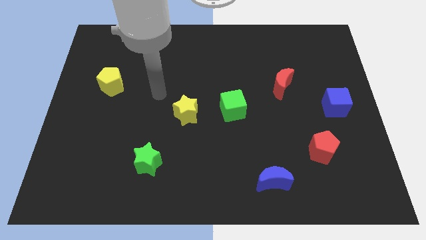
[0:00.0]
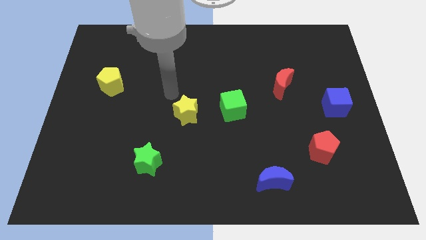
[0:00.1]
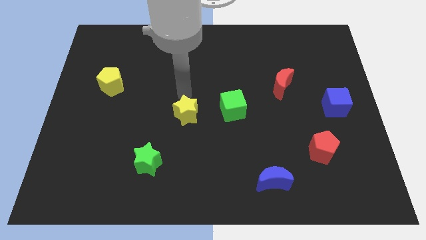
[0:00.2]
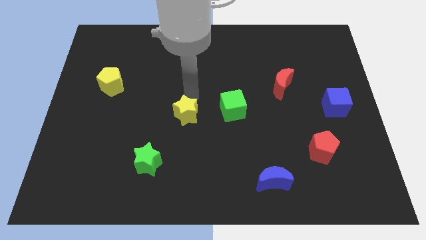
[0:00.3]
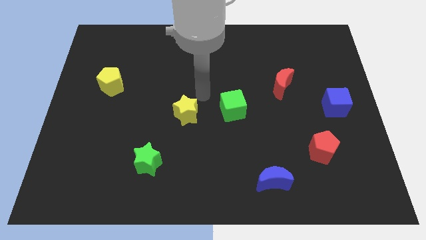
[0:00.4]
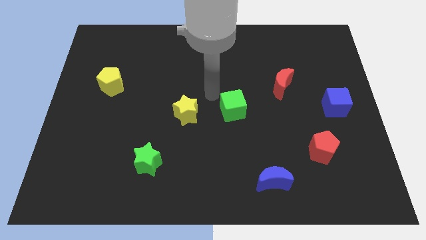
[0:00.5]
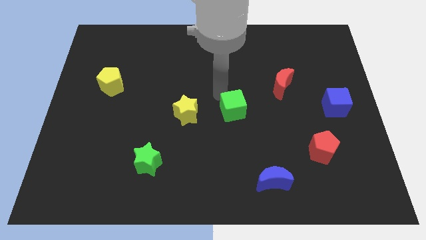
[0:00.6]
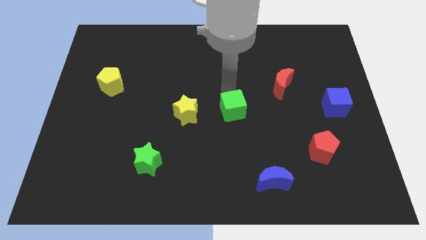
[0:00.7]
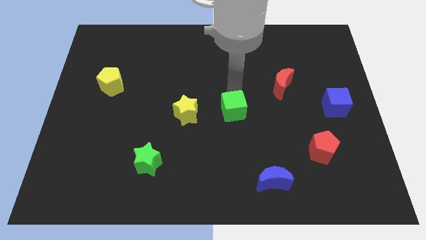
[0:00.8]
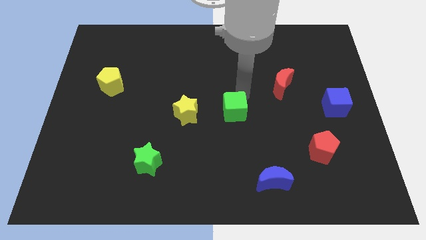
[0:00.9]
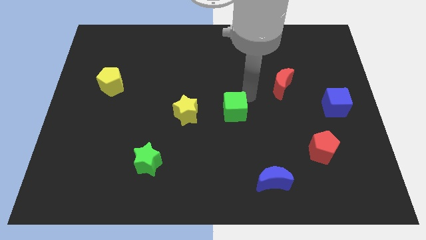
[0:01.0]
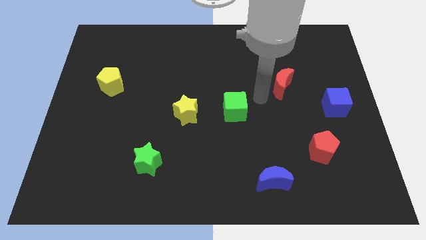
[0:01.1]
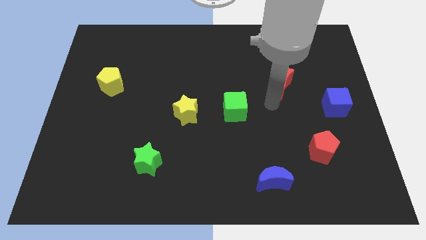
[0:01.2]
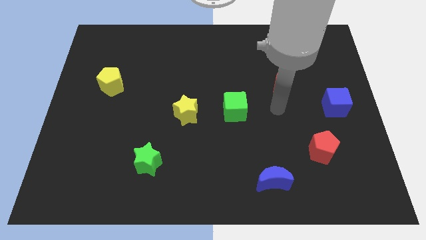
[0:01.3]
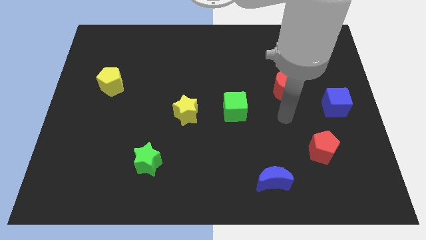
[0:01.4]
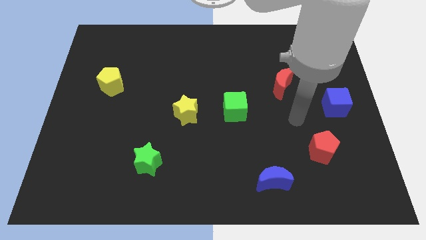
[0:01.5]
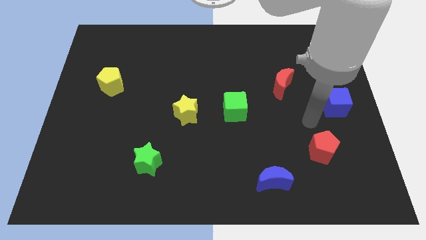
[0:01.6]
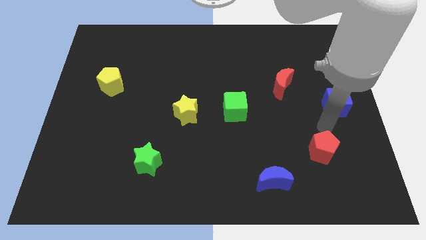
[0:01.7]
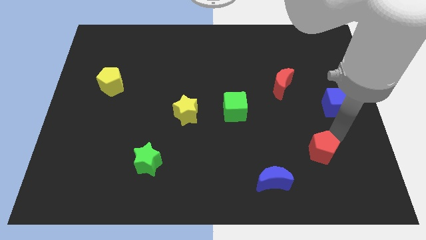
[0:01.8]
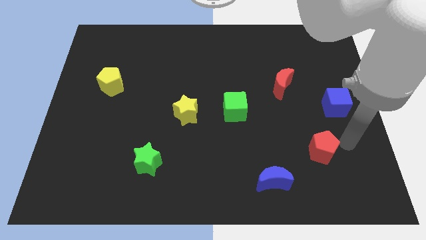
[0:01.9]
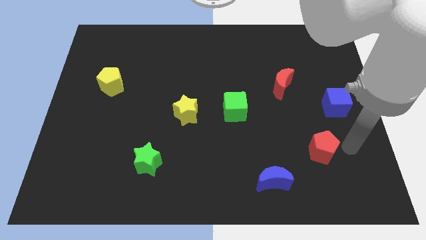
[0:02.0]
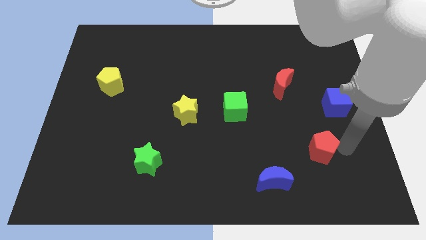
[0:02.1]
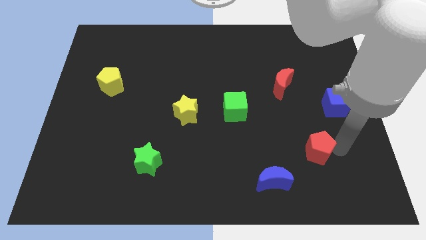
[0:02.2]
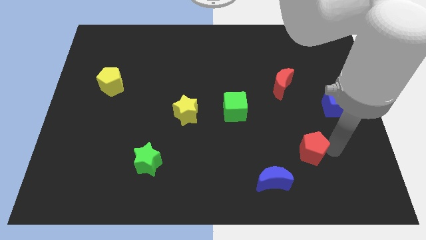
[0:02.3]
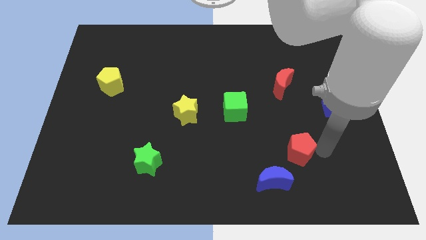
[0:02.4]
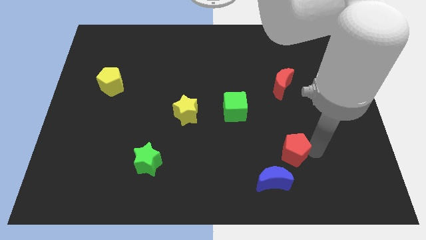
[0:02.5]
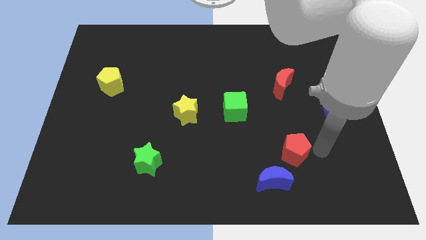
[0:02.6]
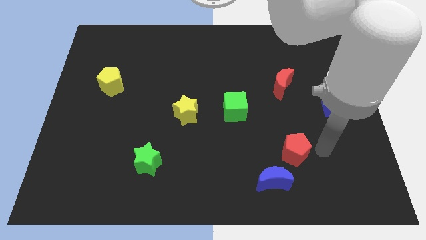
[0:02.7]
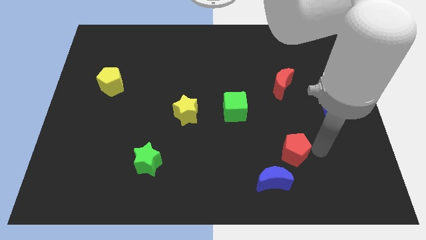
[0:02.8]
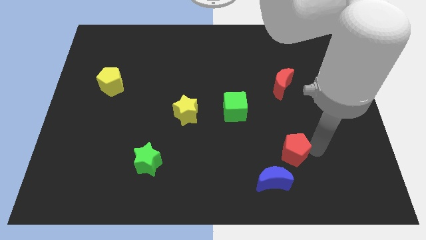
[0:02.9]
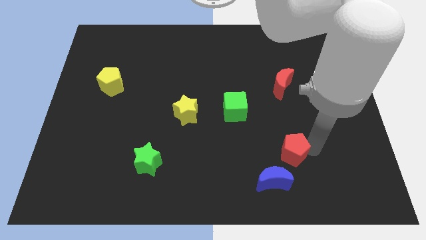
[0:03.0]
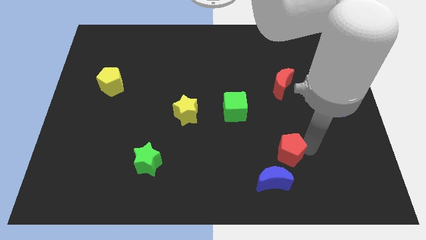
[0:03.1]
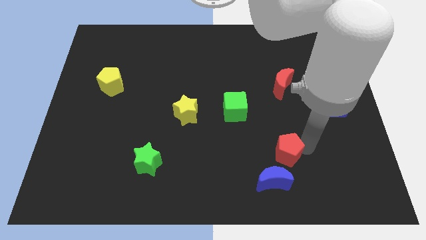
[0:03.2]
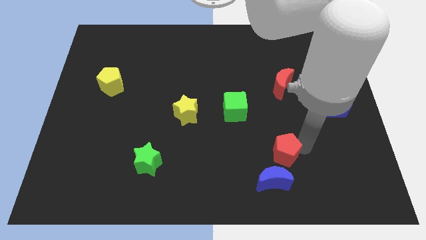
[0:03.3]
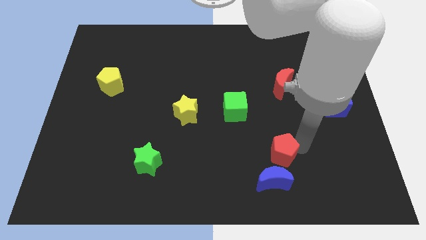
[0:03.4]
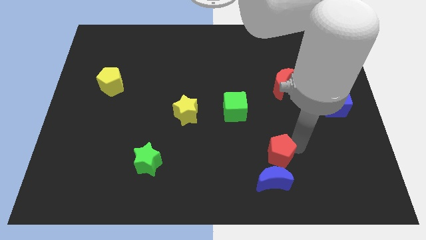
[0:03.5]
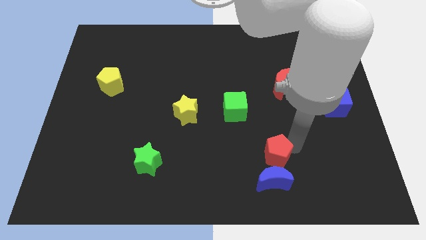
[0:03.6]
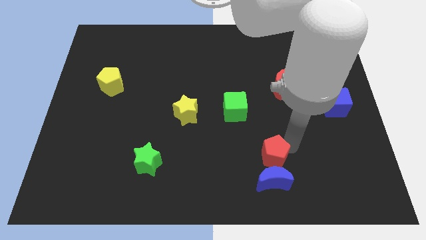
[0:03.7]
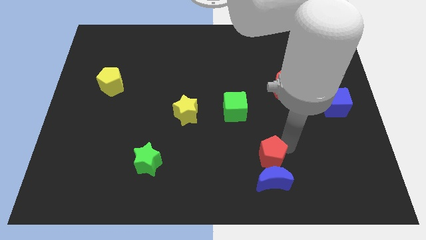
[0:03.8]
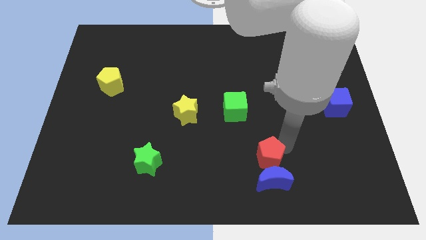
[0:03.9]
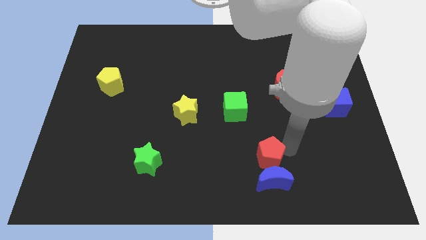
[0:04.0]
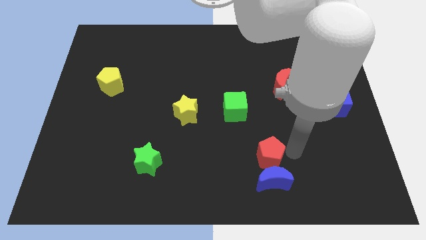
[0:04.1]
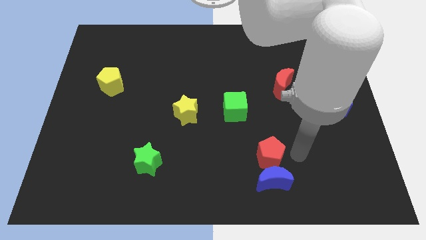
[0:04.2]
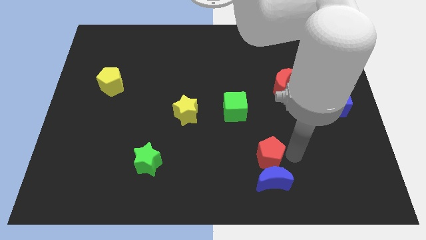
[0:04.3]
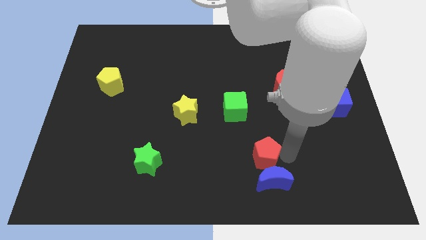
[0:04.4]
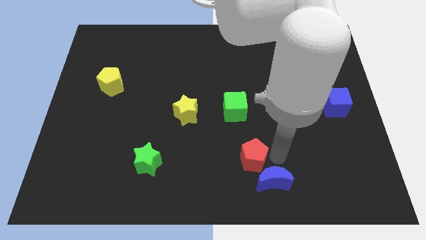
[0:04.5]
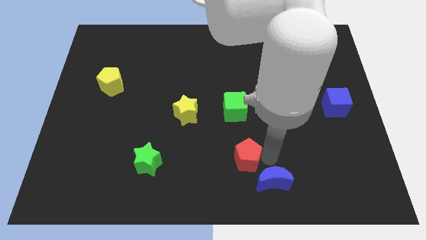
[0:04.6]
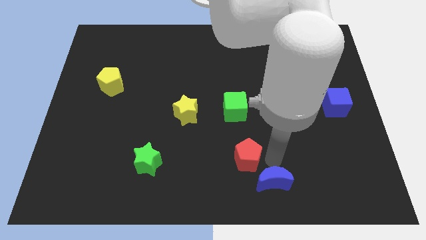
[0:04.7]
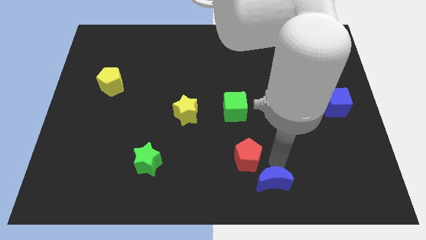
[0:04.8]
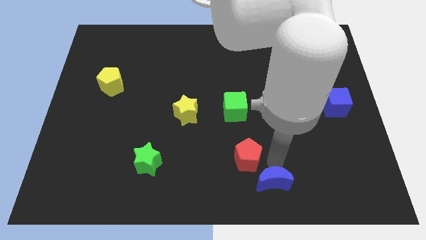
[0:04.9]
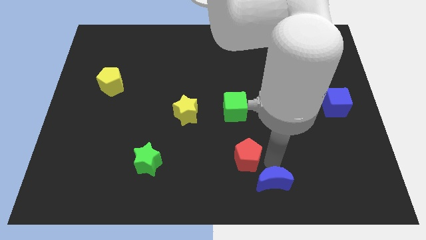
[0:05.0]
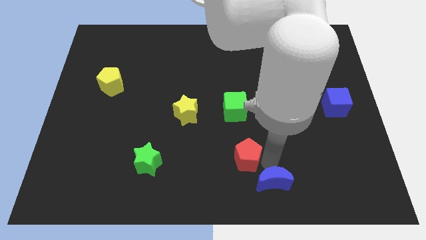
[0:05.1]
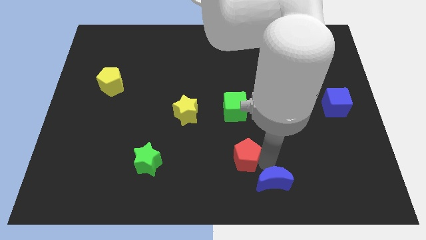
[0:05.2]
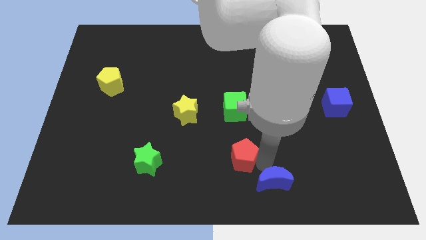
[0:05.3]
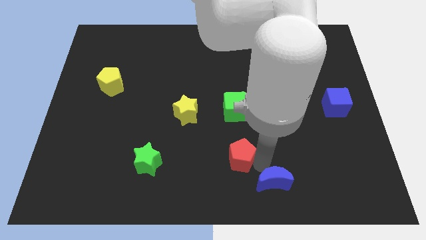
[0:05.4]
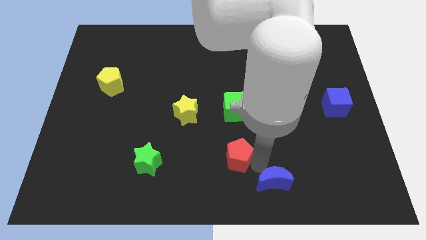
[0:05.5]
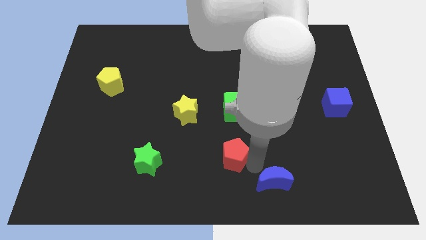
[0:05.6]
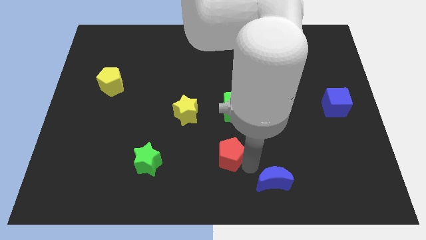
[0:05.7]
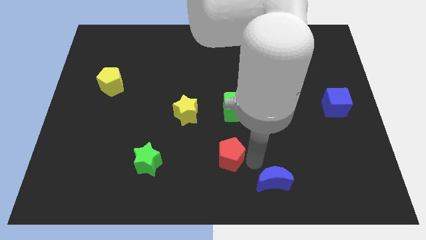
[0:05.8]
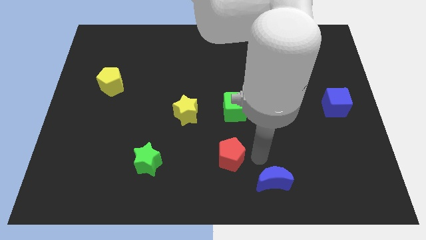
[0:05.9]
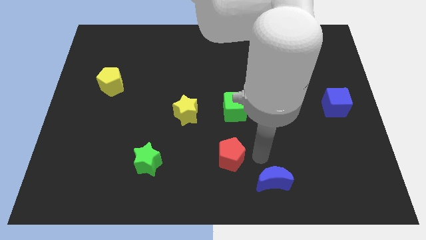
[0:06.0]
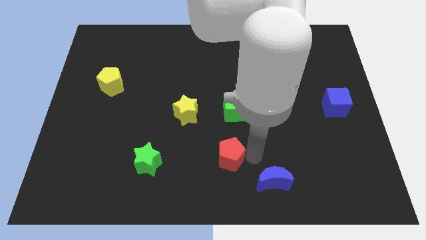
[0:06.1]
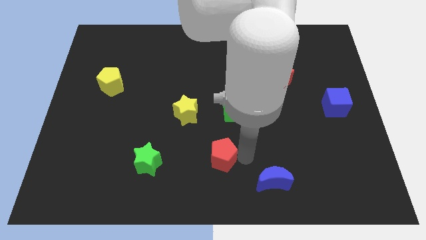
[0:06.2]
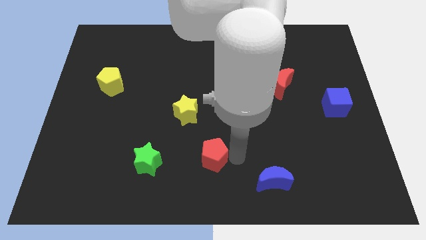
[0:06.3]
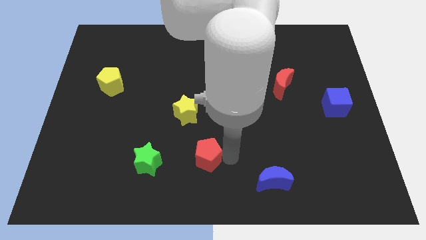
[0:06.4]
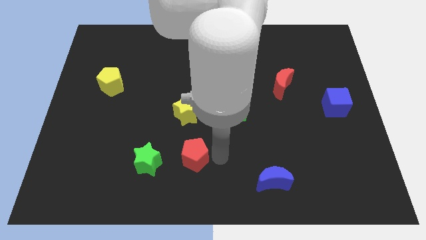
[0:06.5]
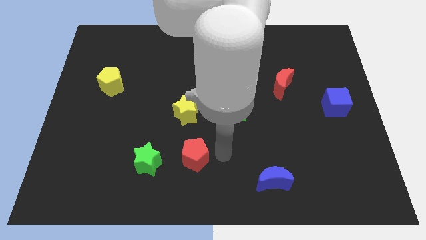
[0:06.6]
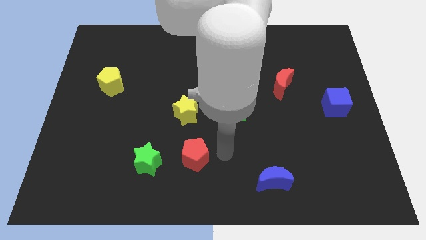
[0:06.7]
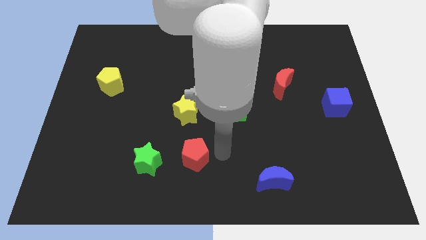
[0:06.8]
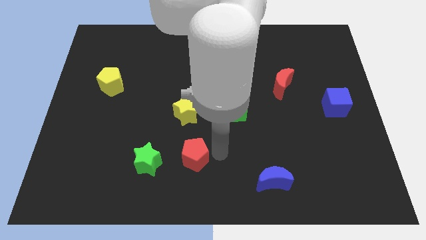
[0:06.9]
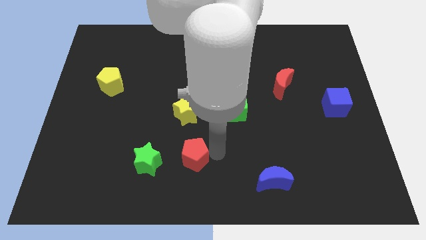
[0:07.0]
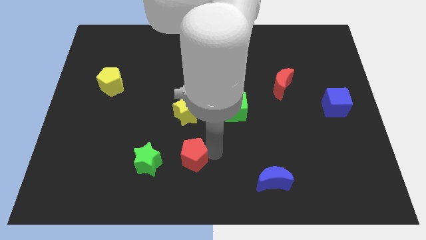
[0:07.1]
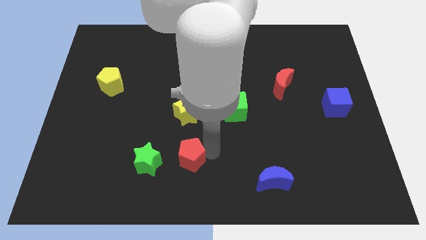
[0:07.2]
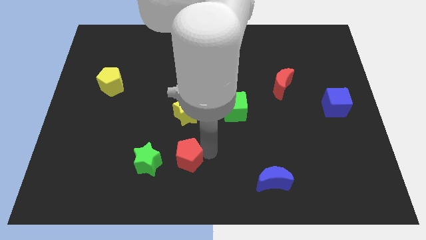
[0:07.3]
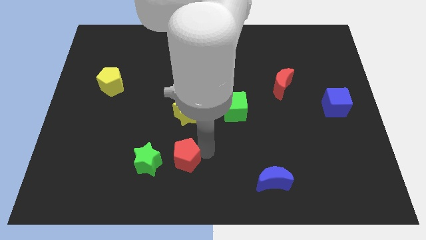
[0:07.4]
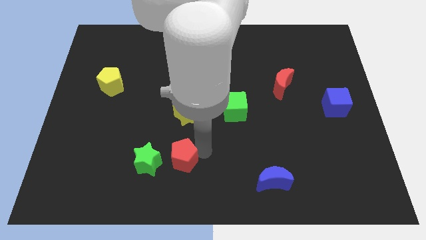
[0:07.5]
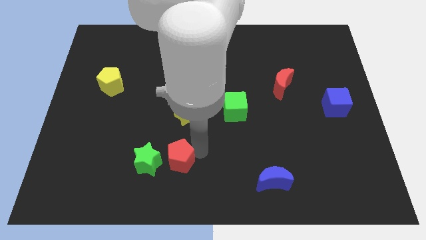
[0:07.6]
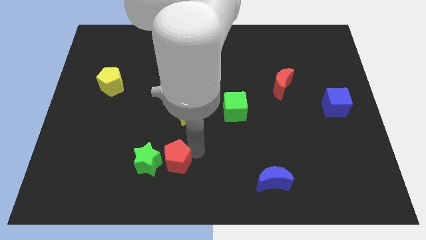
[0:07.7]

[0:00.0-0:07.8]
put the red pentagon towards the green star
